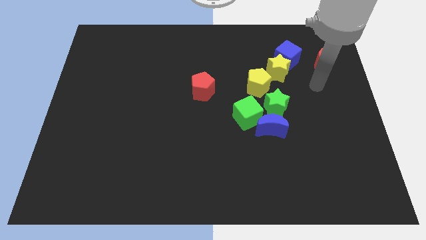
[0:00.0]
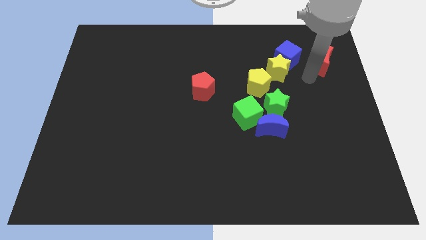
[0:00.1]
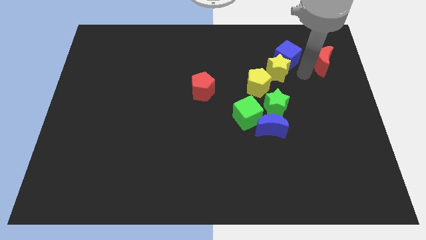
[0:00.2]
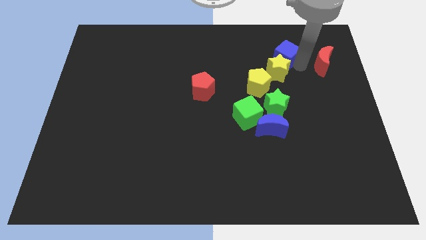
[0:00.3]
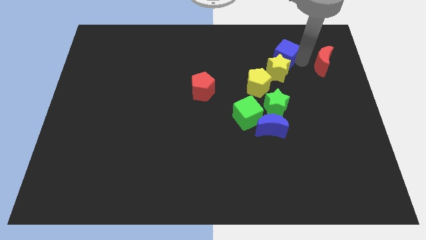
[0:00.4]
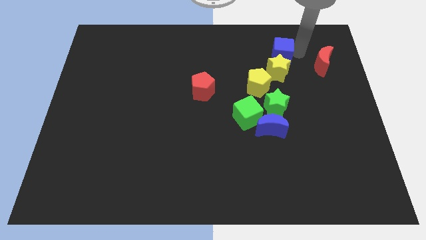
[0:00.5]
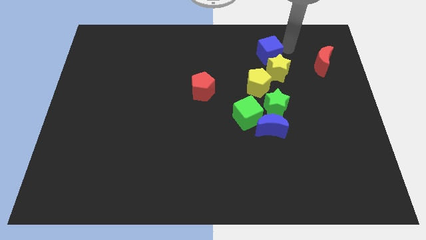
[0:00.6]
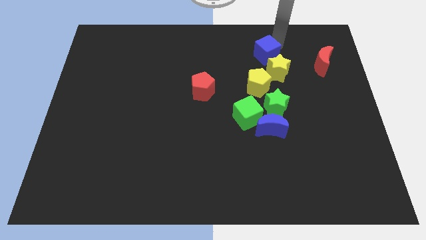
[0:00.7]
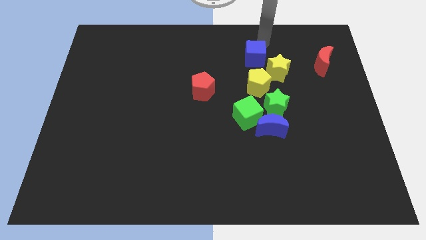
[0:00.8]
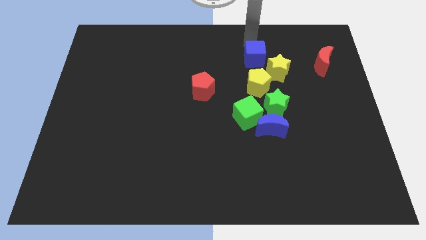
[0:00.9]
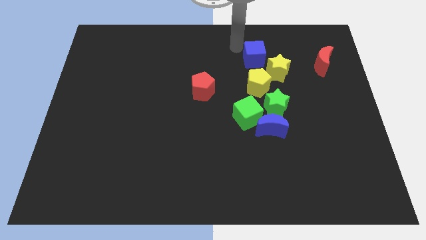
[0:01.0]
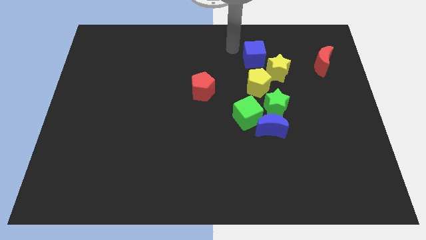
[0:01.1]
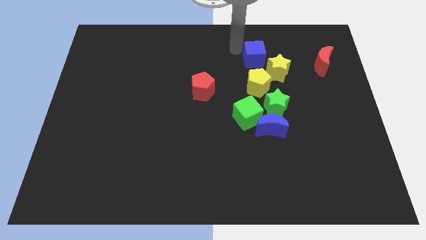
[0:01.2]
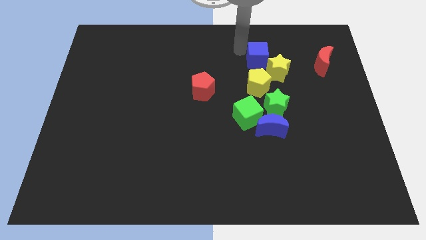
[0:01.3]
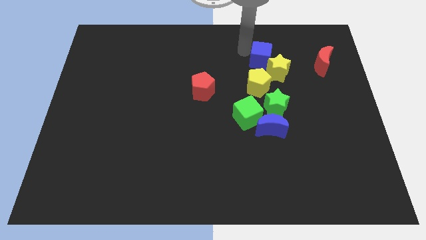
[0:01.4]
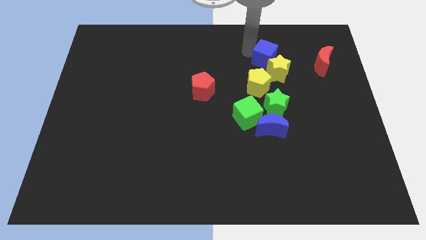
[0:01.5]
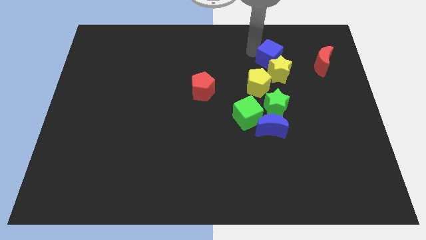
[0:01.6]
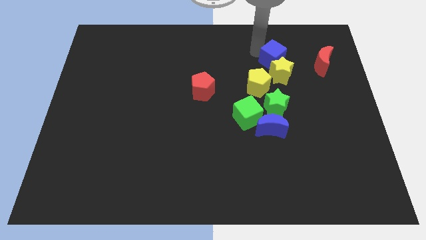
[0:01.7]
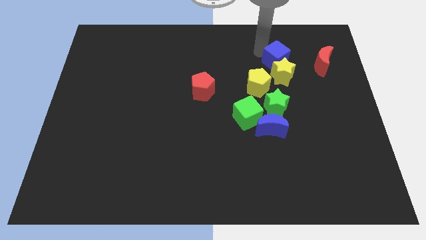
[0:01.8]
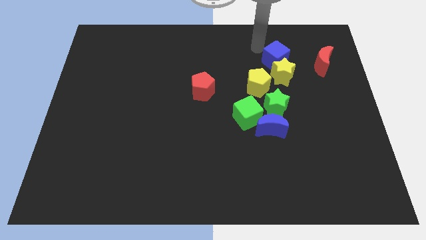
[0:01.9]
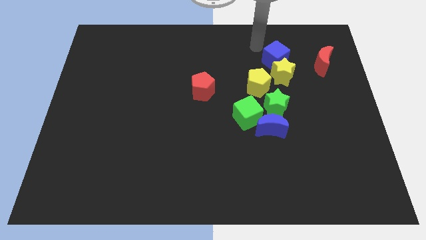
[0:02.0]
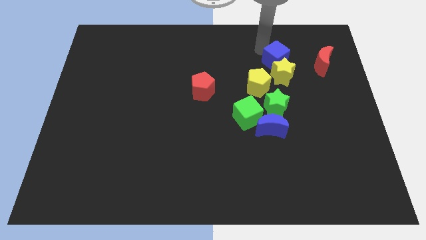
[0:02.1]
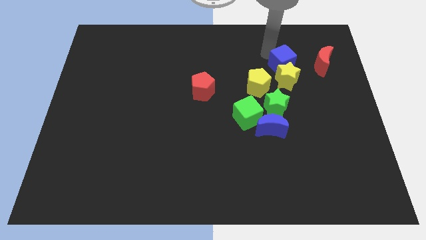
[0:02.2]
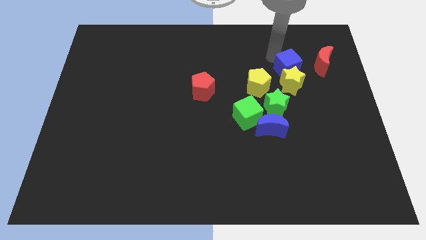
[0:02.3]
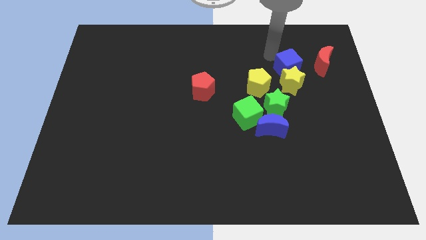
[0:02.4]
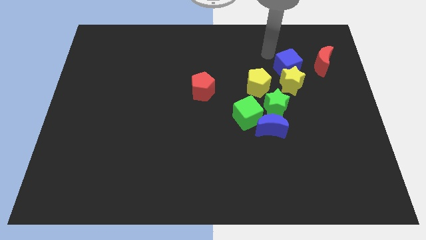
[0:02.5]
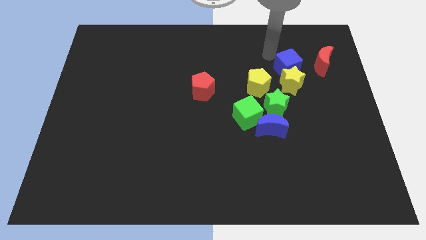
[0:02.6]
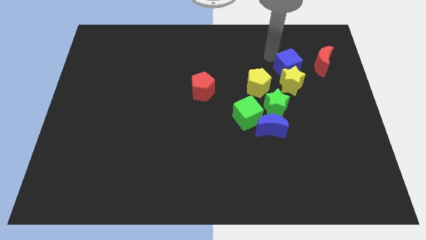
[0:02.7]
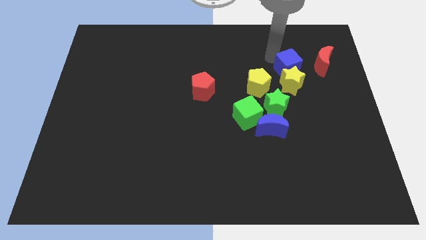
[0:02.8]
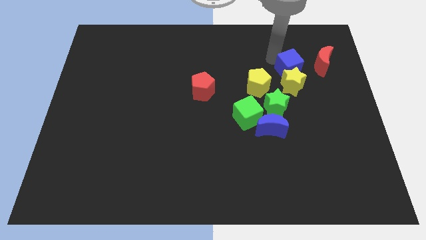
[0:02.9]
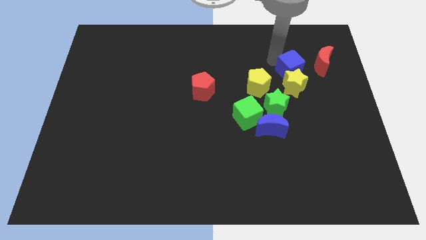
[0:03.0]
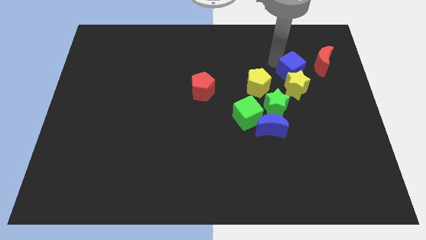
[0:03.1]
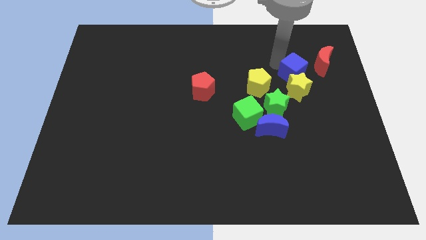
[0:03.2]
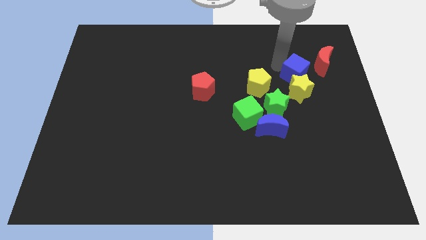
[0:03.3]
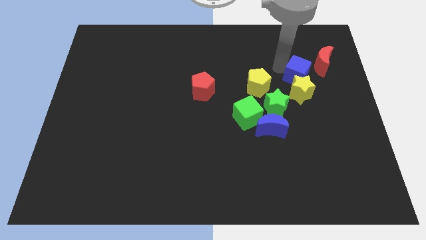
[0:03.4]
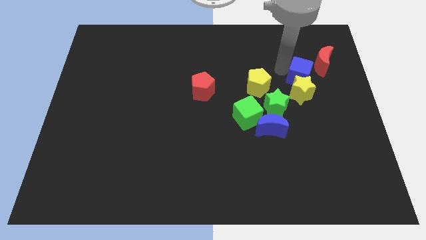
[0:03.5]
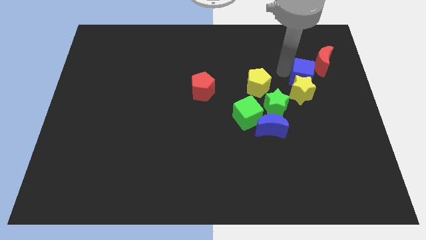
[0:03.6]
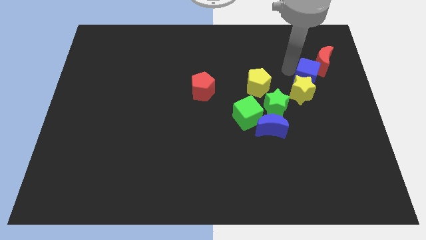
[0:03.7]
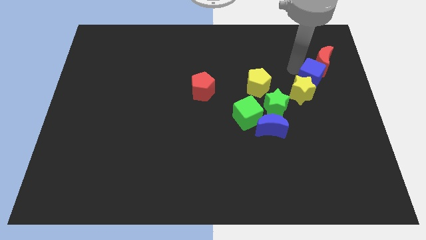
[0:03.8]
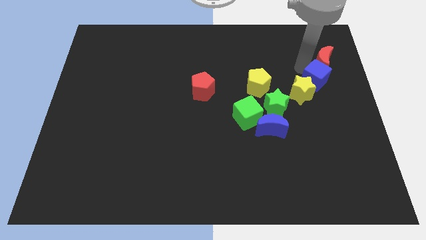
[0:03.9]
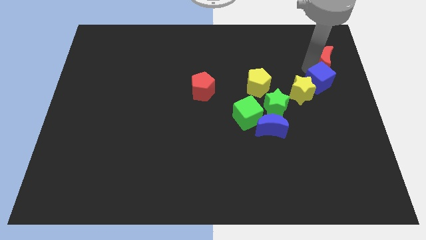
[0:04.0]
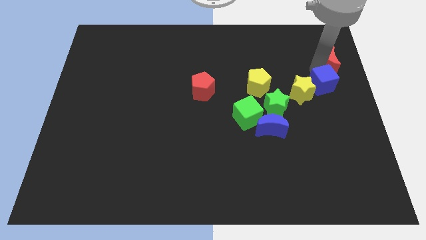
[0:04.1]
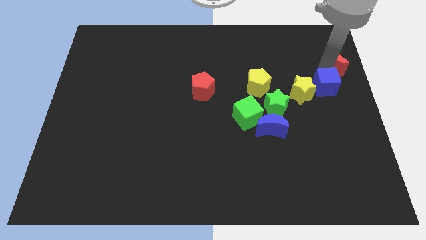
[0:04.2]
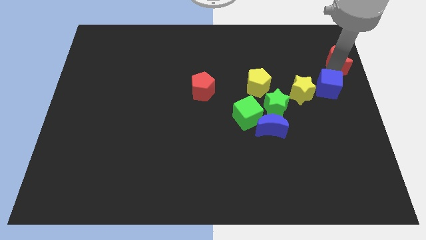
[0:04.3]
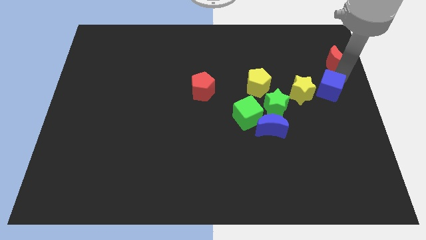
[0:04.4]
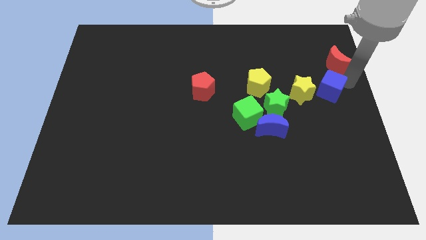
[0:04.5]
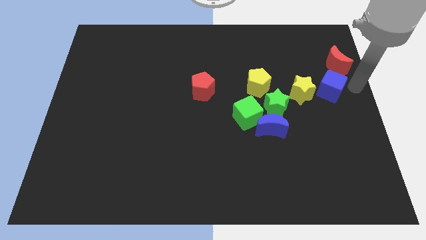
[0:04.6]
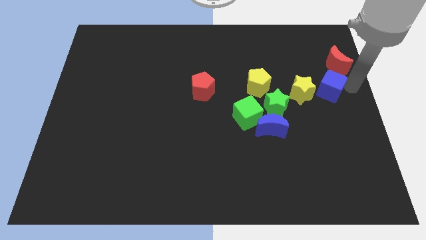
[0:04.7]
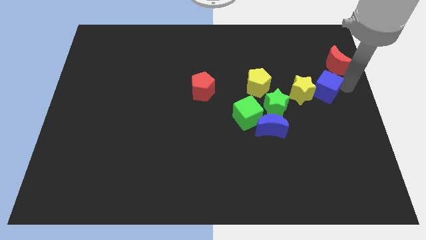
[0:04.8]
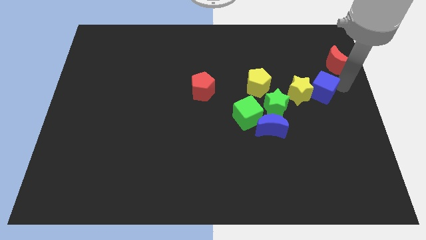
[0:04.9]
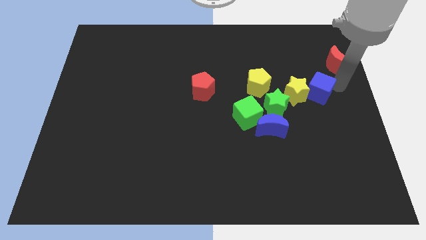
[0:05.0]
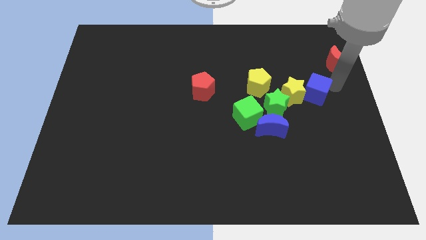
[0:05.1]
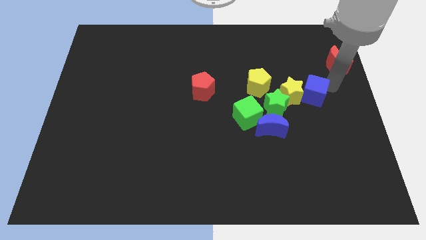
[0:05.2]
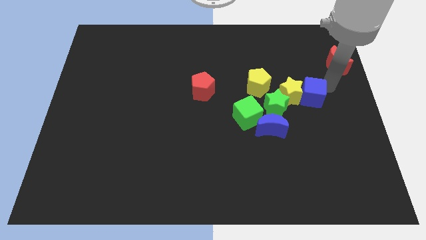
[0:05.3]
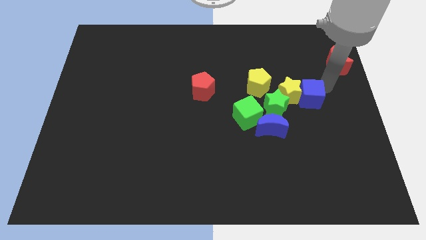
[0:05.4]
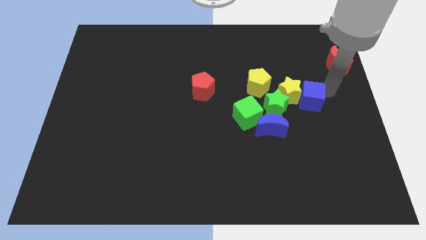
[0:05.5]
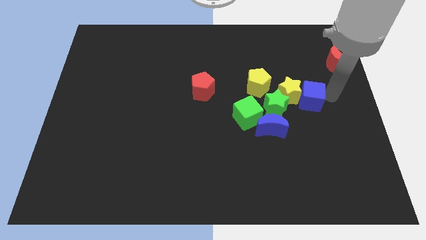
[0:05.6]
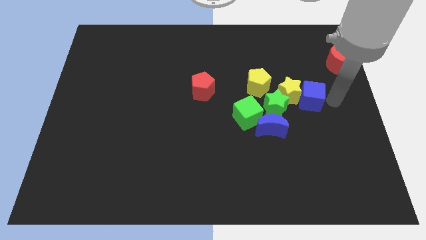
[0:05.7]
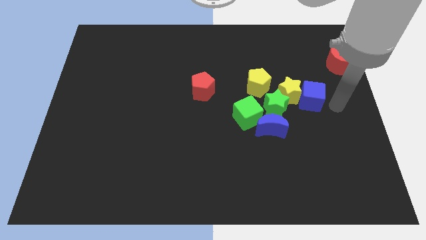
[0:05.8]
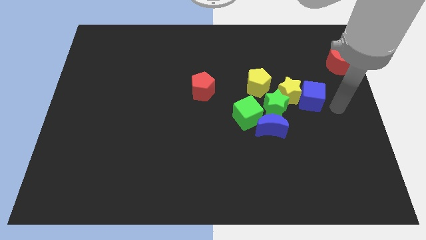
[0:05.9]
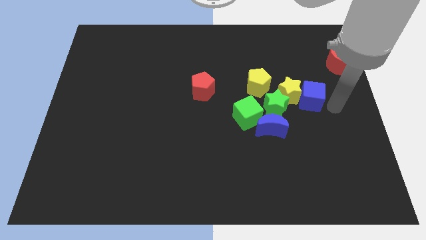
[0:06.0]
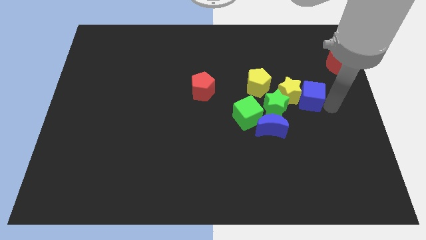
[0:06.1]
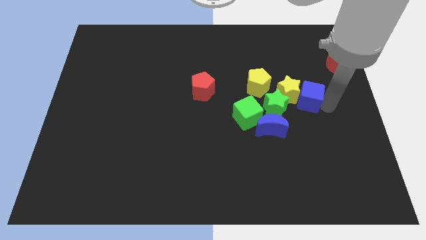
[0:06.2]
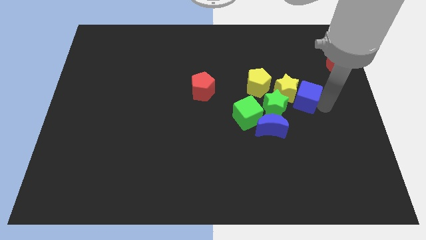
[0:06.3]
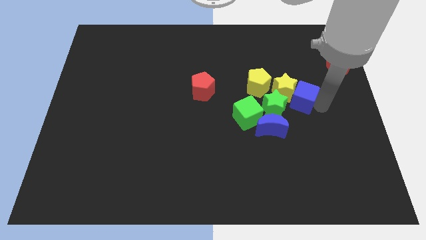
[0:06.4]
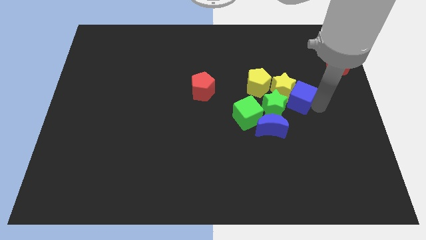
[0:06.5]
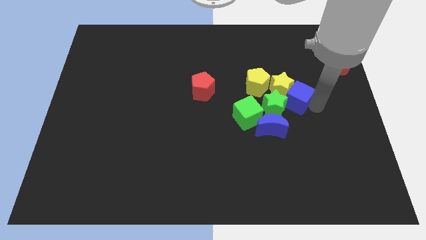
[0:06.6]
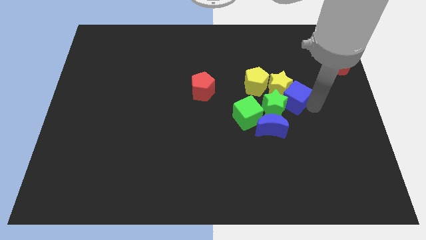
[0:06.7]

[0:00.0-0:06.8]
push the blue cube to the green star

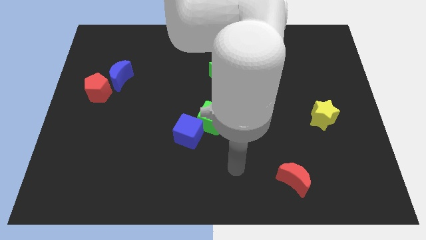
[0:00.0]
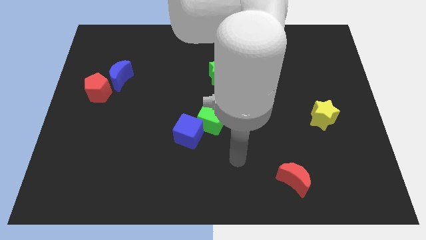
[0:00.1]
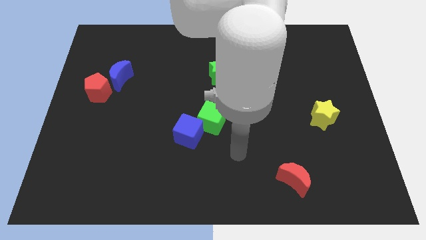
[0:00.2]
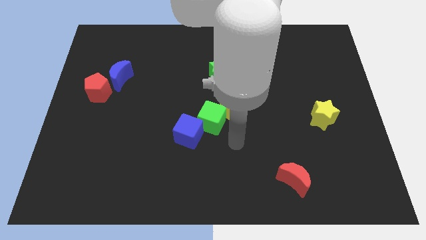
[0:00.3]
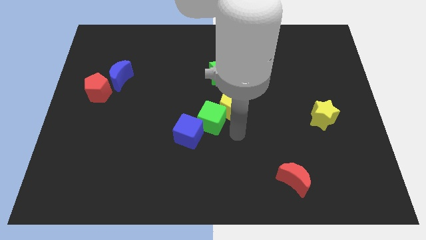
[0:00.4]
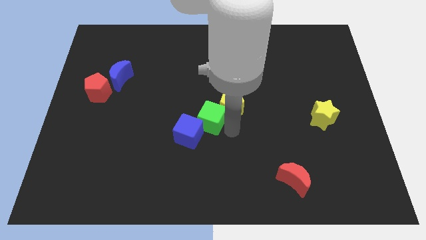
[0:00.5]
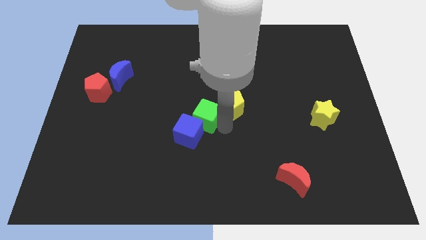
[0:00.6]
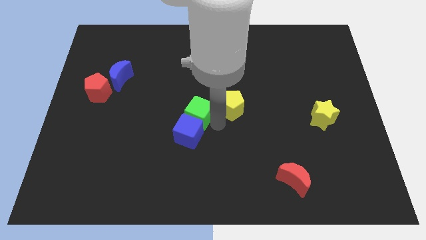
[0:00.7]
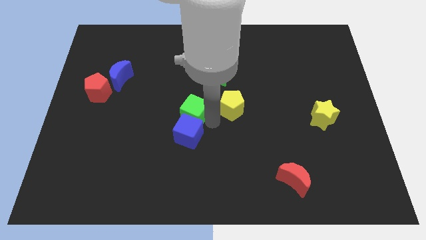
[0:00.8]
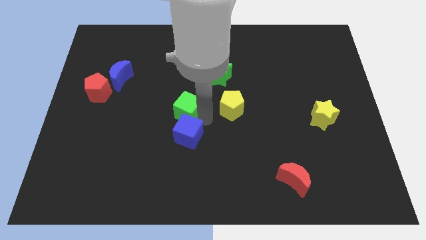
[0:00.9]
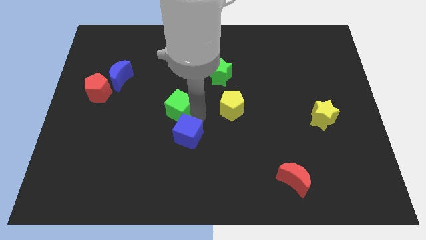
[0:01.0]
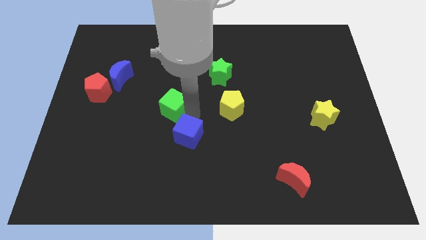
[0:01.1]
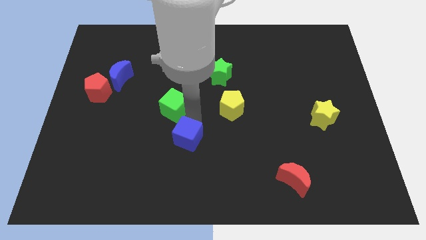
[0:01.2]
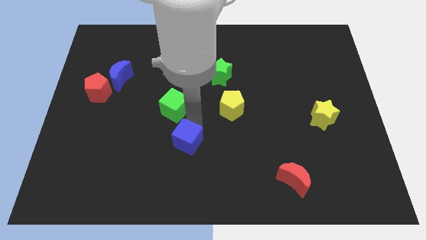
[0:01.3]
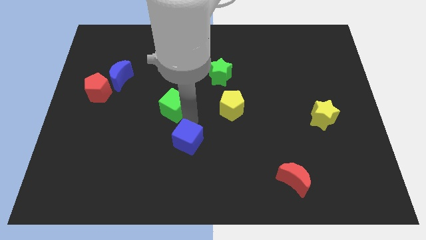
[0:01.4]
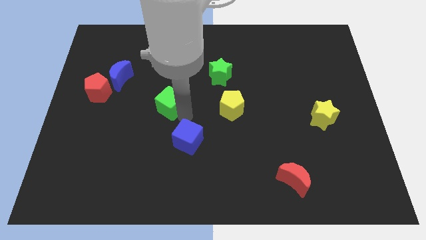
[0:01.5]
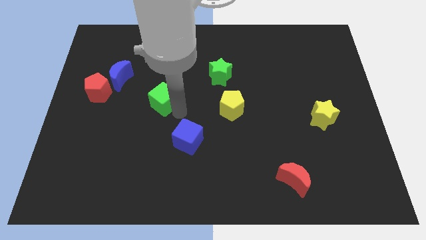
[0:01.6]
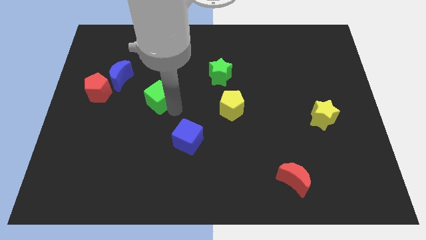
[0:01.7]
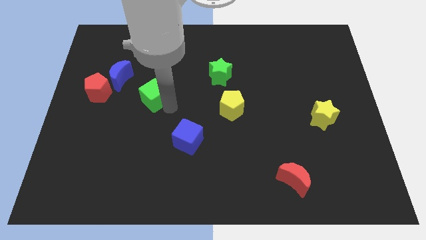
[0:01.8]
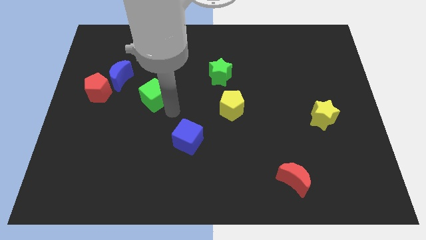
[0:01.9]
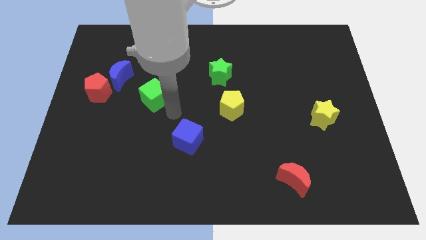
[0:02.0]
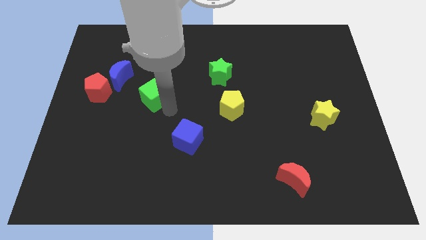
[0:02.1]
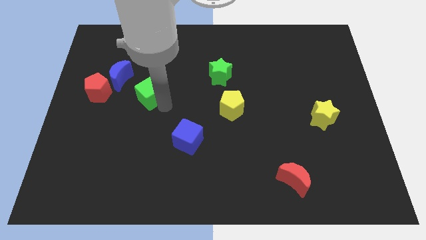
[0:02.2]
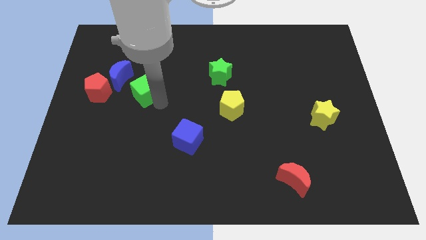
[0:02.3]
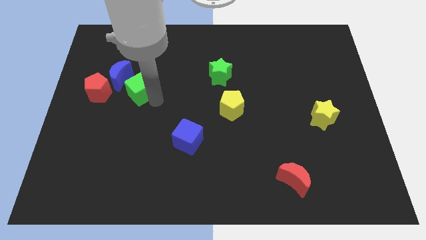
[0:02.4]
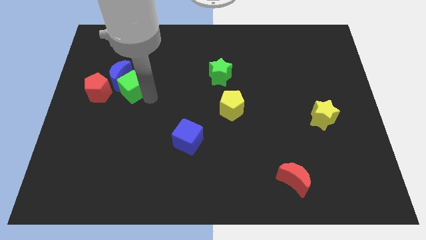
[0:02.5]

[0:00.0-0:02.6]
slide the green cube to the blue moon
